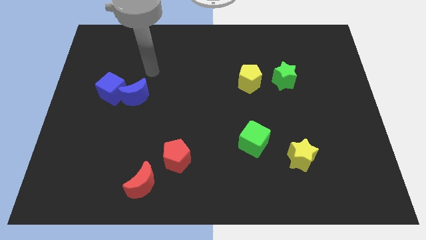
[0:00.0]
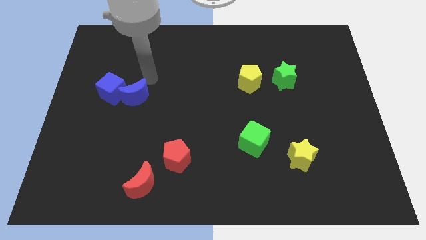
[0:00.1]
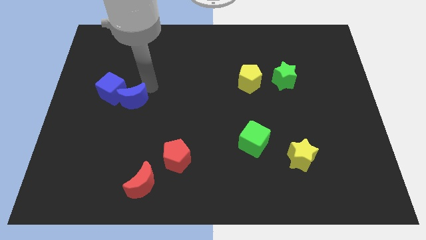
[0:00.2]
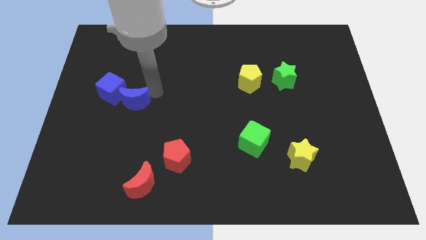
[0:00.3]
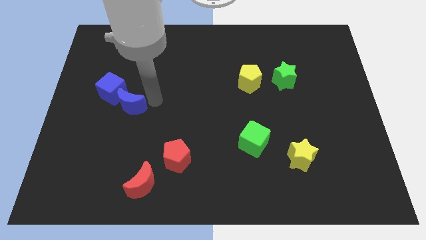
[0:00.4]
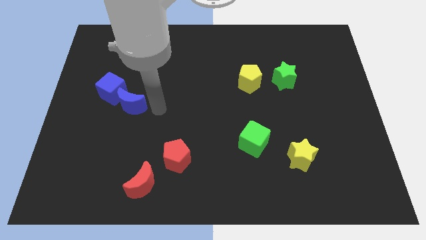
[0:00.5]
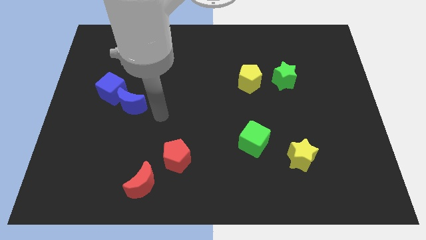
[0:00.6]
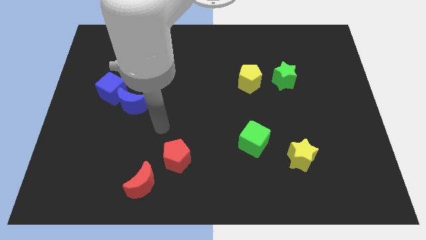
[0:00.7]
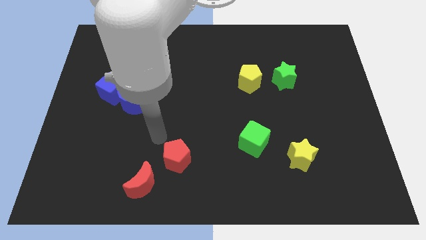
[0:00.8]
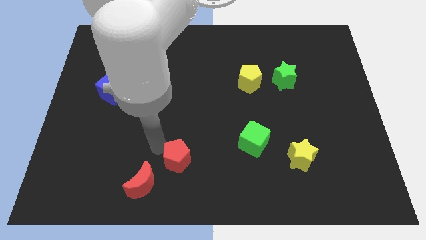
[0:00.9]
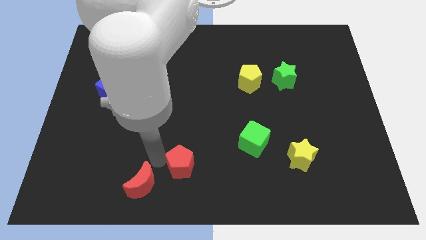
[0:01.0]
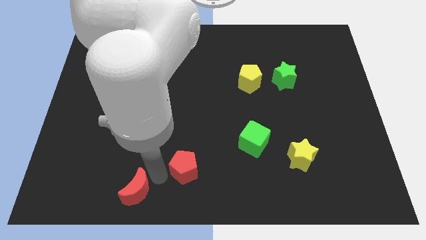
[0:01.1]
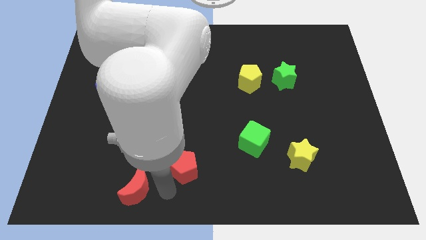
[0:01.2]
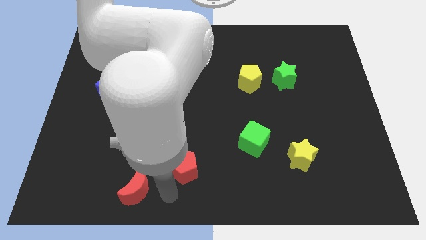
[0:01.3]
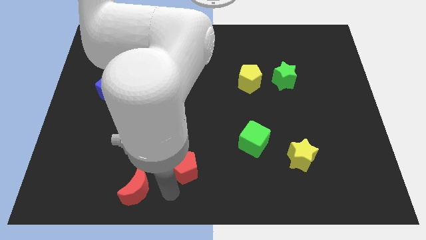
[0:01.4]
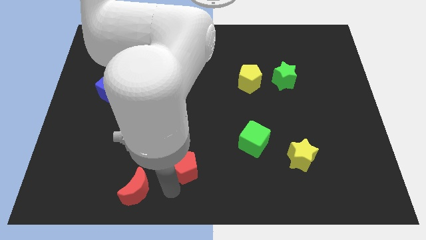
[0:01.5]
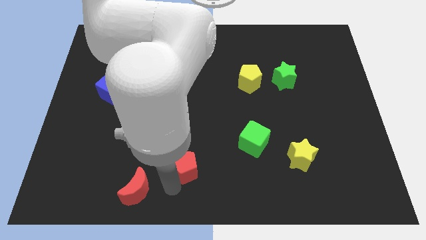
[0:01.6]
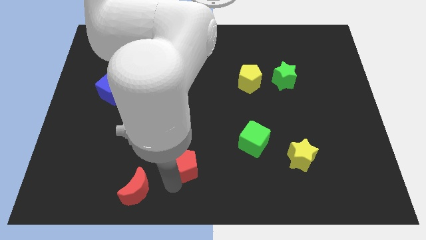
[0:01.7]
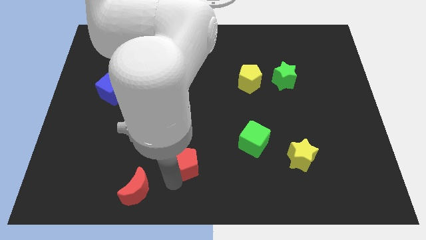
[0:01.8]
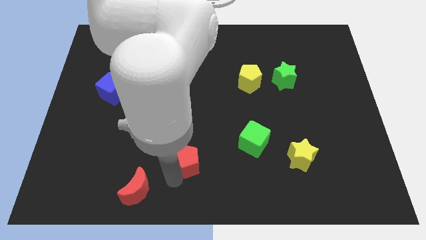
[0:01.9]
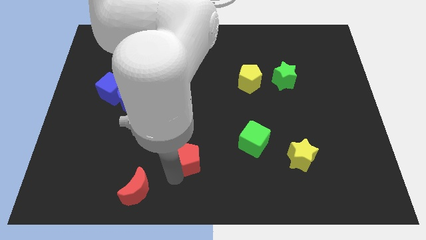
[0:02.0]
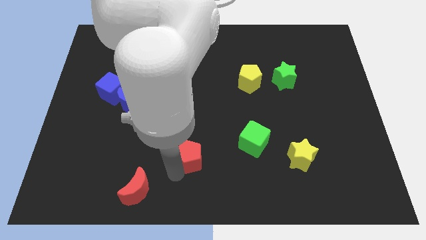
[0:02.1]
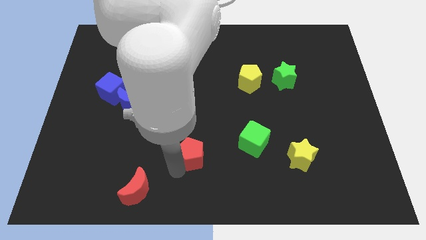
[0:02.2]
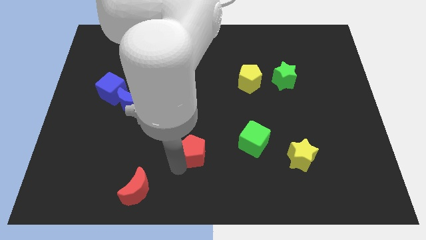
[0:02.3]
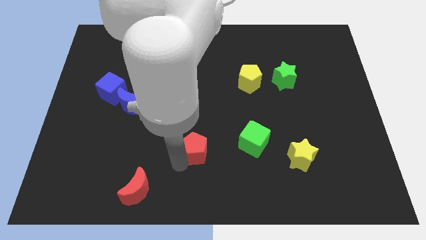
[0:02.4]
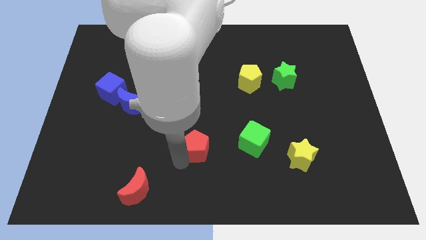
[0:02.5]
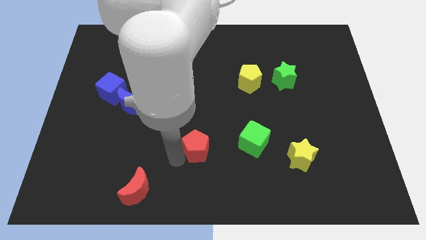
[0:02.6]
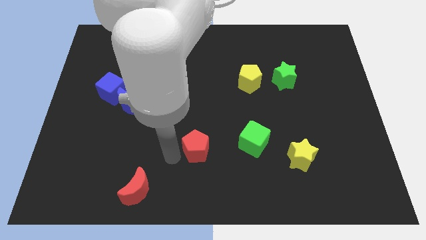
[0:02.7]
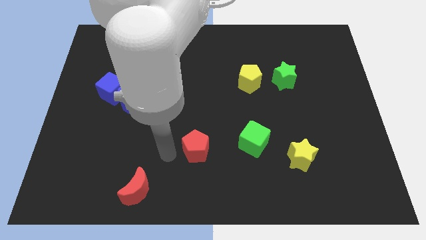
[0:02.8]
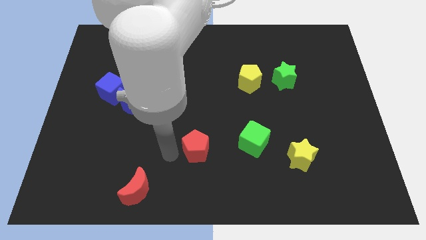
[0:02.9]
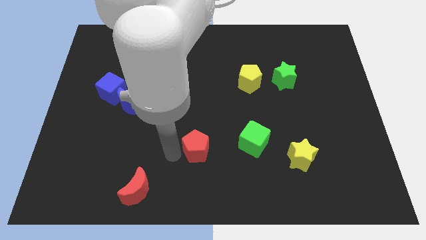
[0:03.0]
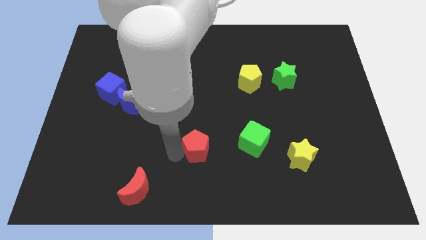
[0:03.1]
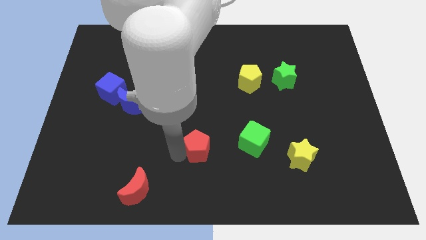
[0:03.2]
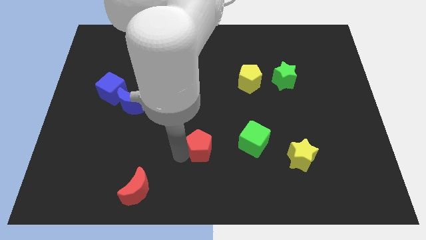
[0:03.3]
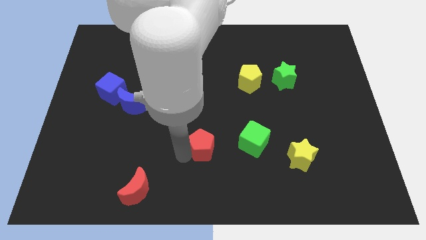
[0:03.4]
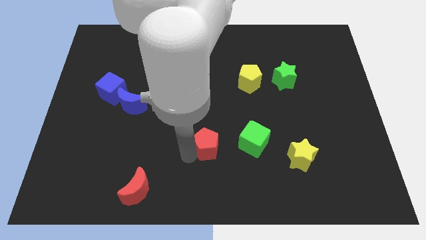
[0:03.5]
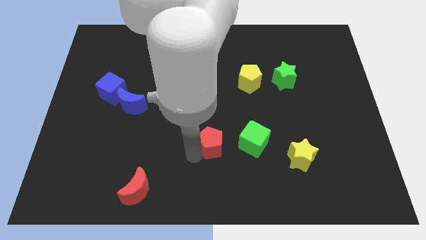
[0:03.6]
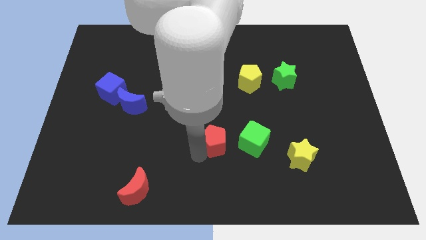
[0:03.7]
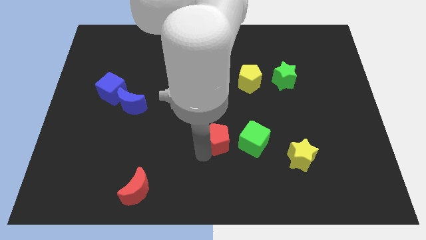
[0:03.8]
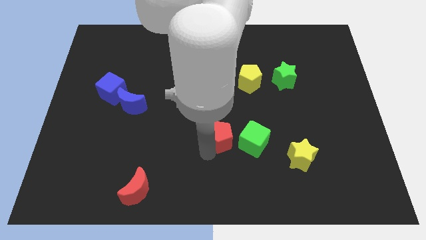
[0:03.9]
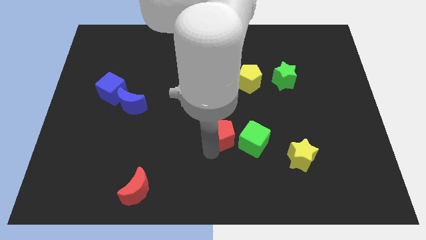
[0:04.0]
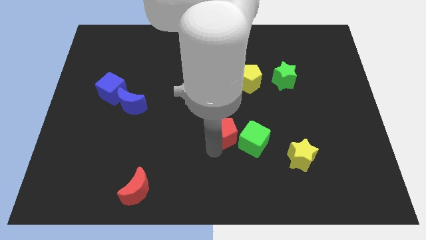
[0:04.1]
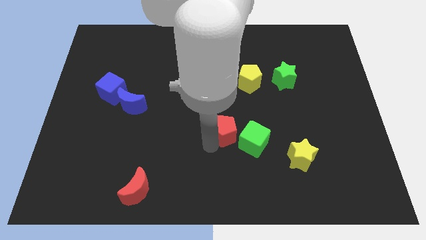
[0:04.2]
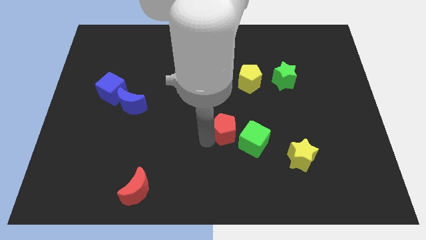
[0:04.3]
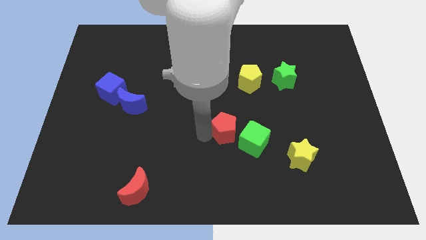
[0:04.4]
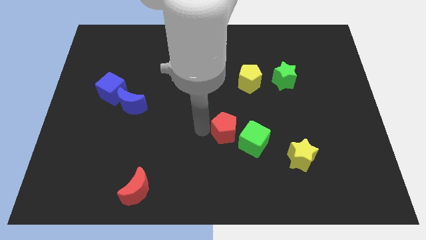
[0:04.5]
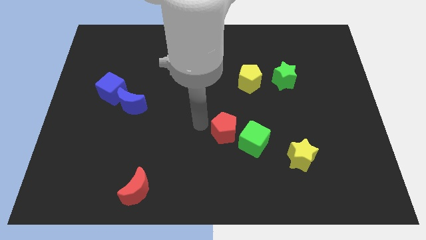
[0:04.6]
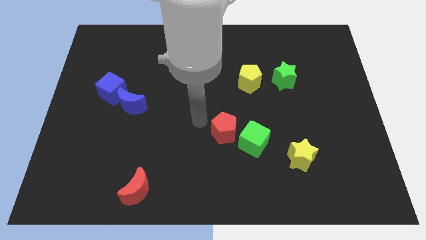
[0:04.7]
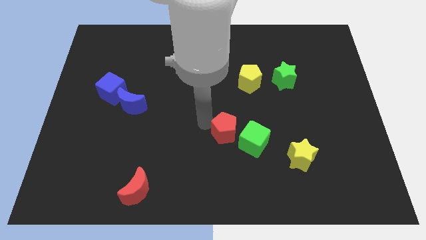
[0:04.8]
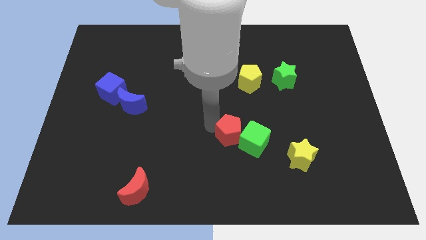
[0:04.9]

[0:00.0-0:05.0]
move the red pentagon next to the green cube

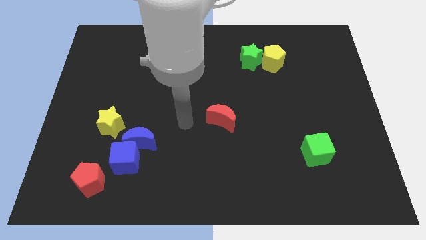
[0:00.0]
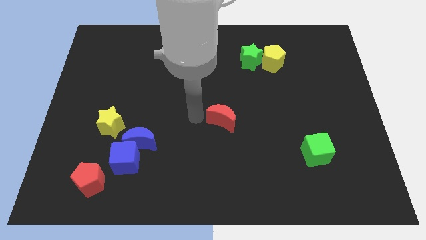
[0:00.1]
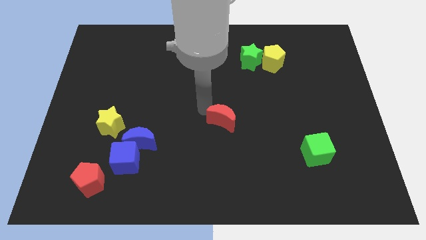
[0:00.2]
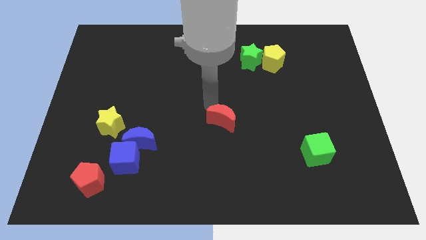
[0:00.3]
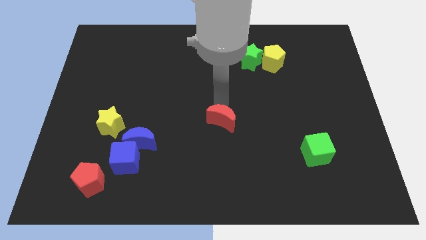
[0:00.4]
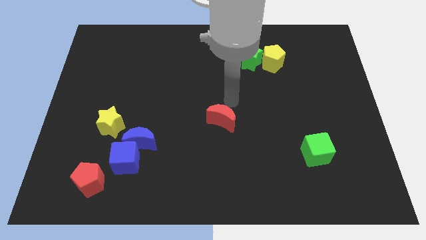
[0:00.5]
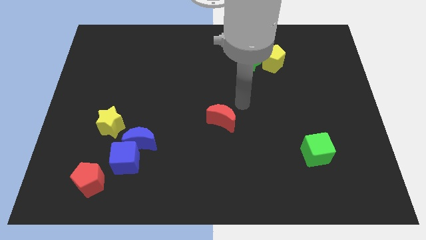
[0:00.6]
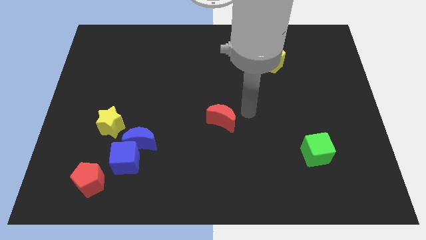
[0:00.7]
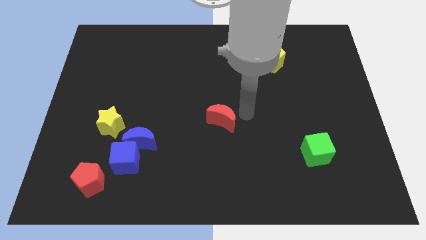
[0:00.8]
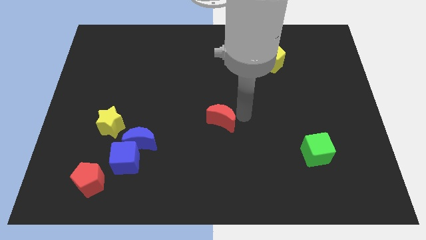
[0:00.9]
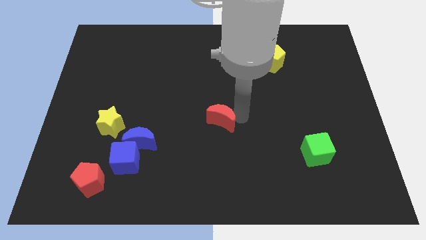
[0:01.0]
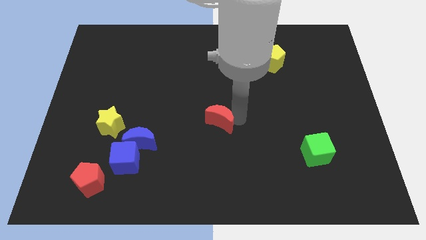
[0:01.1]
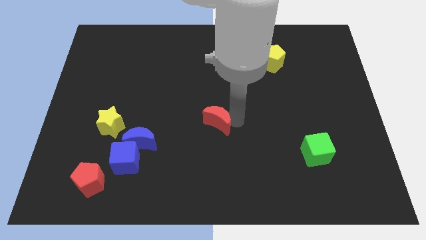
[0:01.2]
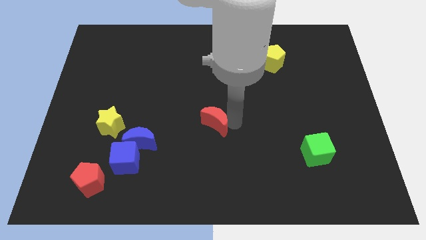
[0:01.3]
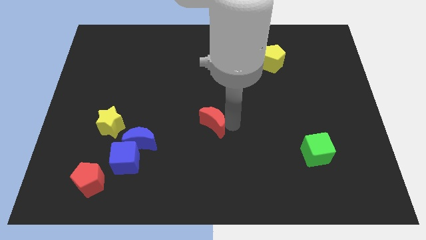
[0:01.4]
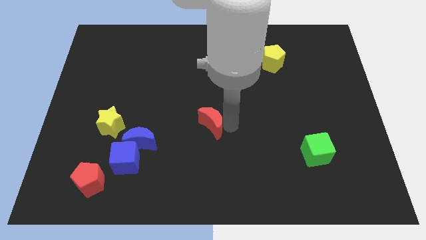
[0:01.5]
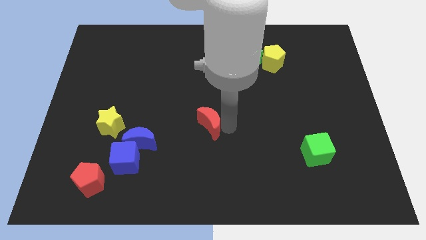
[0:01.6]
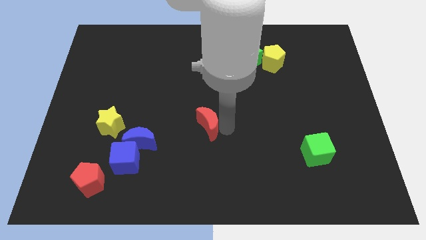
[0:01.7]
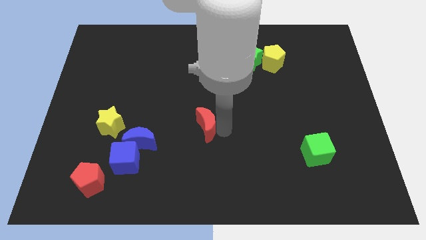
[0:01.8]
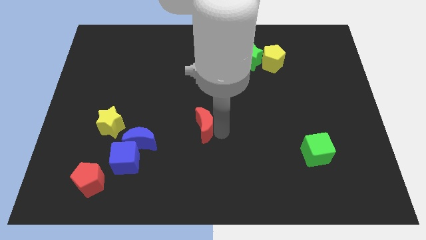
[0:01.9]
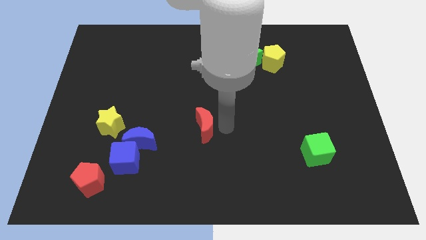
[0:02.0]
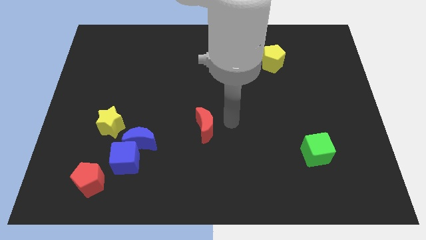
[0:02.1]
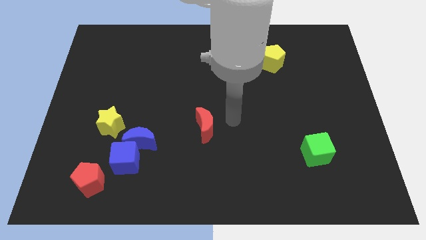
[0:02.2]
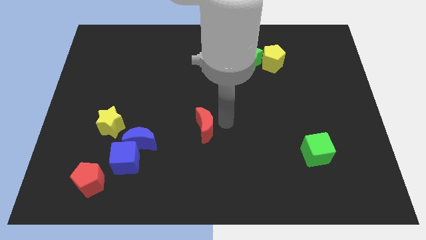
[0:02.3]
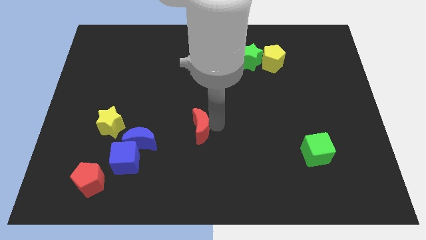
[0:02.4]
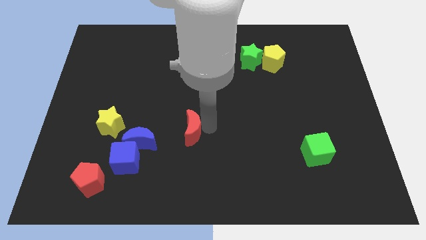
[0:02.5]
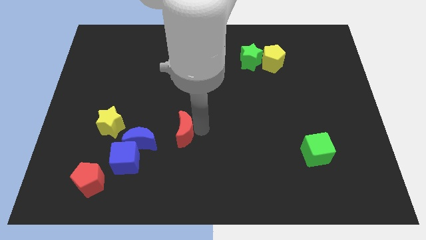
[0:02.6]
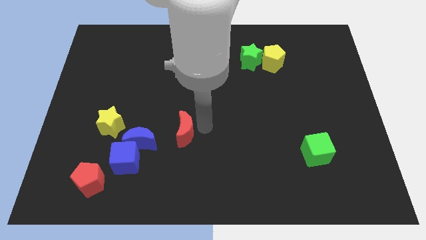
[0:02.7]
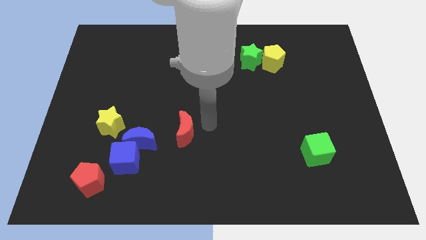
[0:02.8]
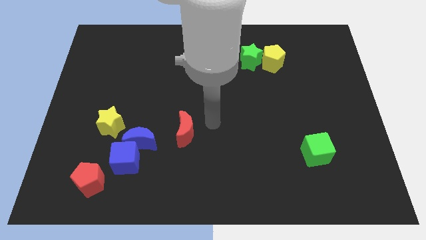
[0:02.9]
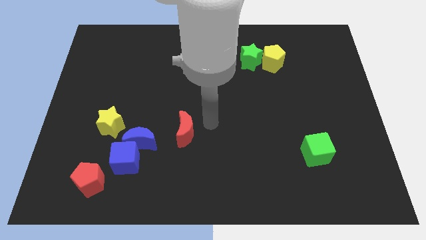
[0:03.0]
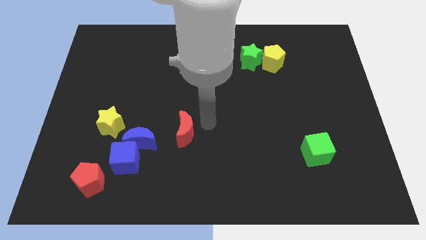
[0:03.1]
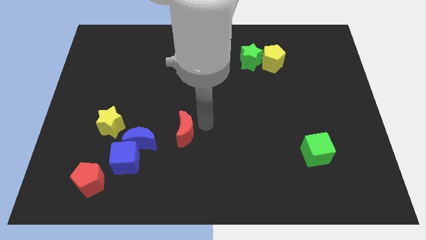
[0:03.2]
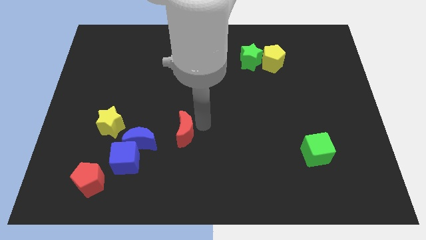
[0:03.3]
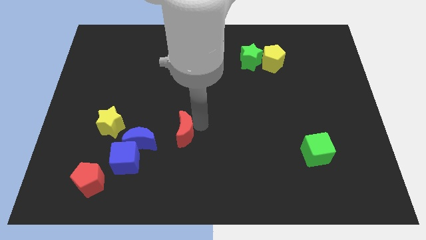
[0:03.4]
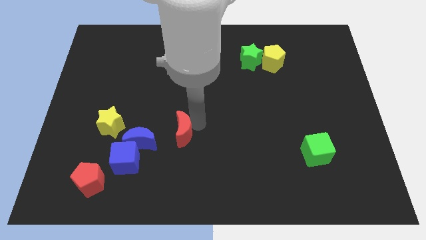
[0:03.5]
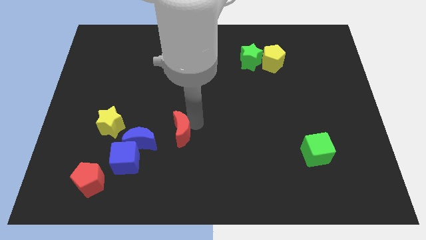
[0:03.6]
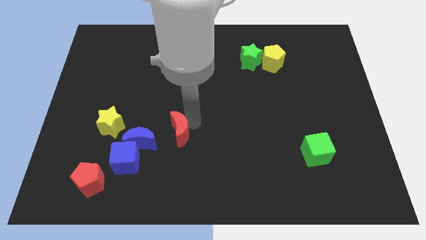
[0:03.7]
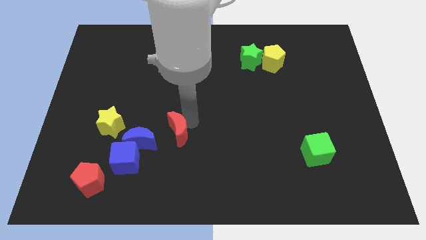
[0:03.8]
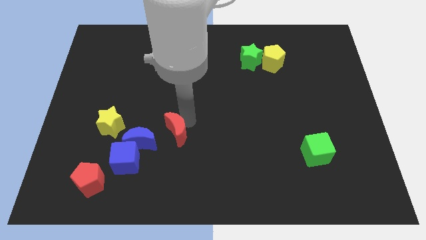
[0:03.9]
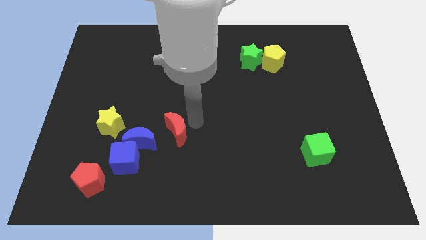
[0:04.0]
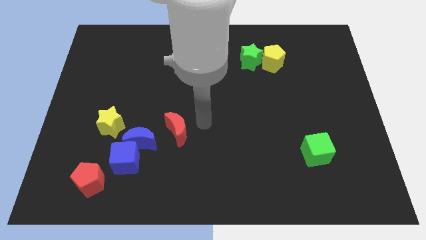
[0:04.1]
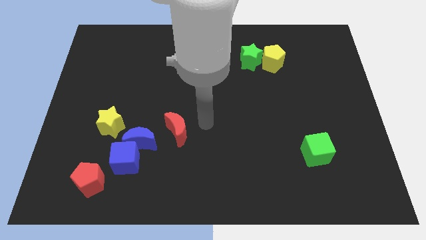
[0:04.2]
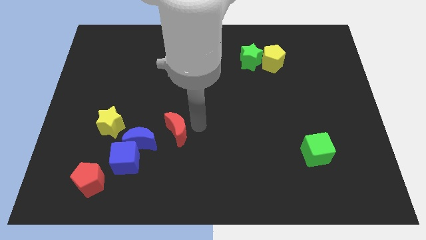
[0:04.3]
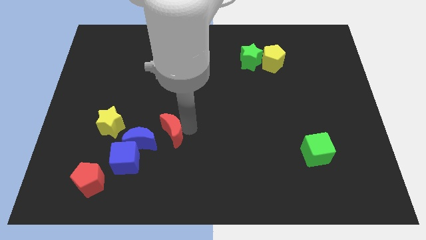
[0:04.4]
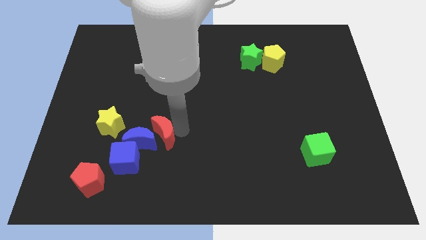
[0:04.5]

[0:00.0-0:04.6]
put the red moon next to the blue moon
